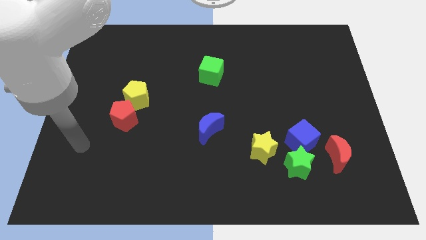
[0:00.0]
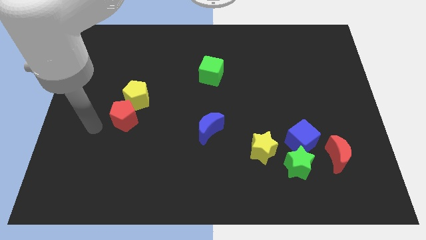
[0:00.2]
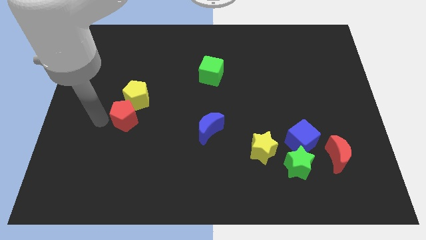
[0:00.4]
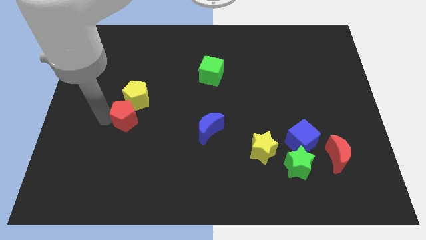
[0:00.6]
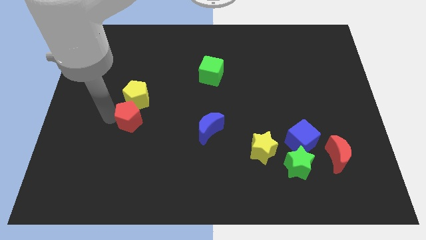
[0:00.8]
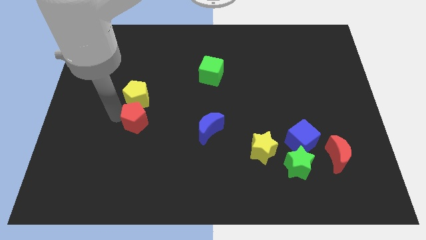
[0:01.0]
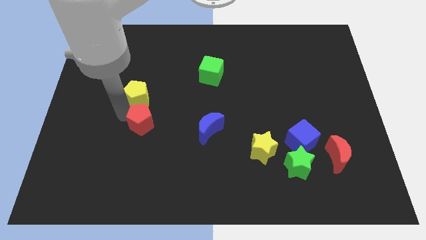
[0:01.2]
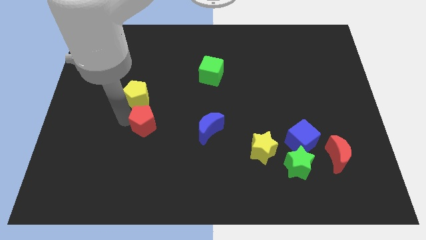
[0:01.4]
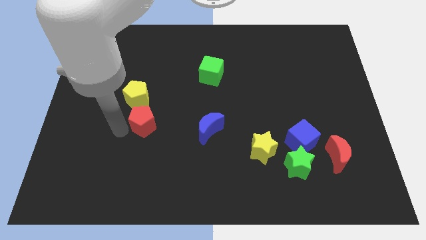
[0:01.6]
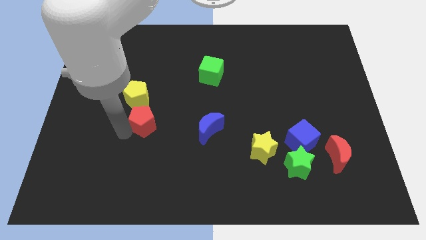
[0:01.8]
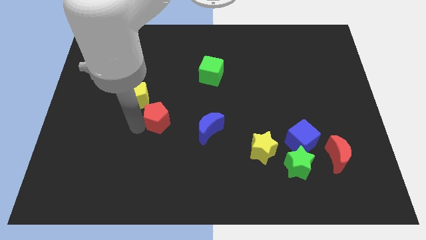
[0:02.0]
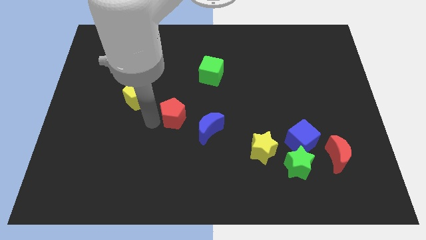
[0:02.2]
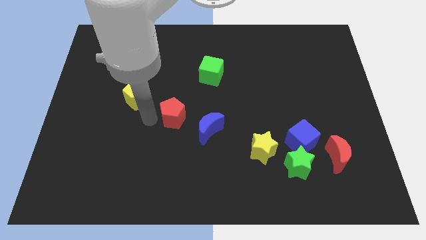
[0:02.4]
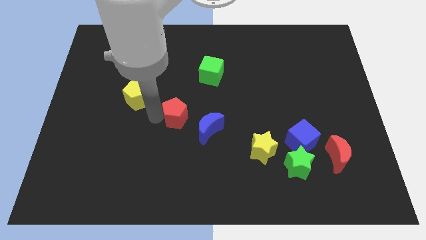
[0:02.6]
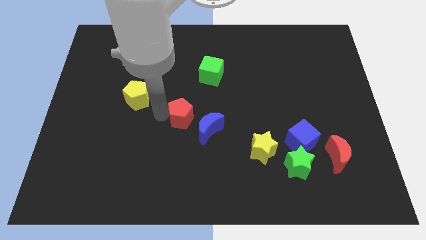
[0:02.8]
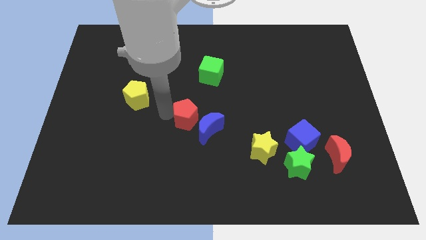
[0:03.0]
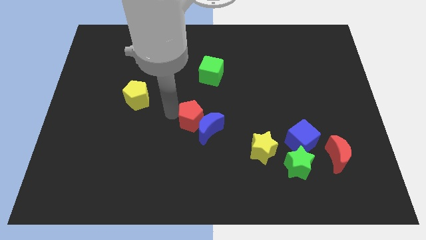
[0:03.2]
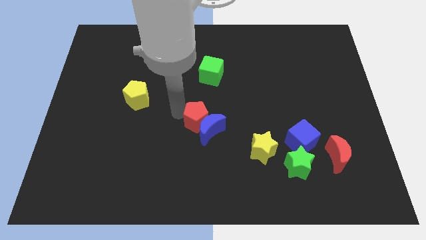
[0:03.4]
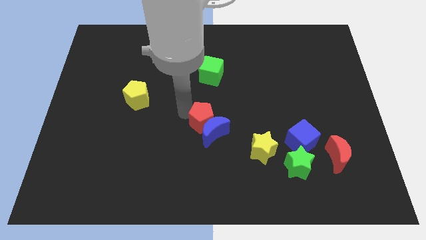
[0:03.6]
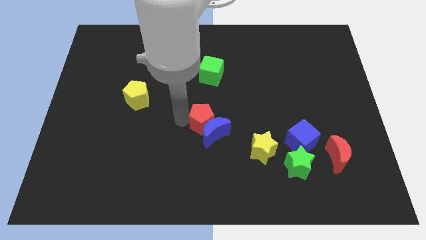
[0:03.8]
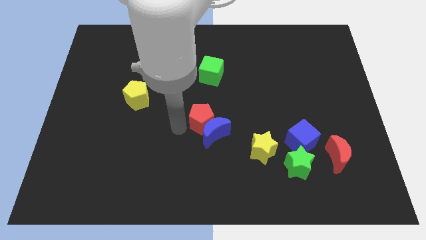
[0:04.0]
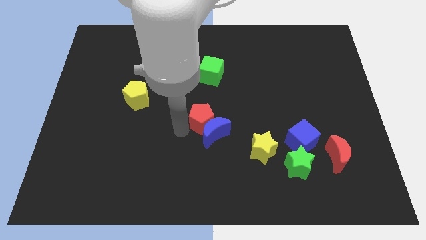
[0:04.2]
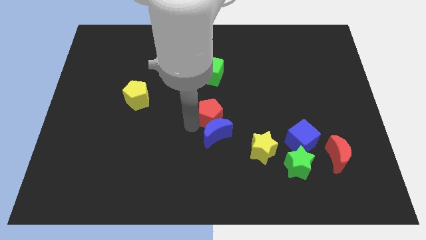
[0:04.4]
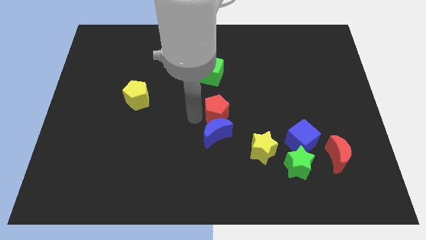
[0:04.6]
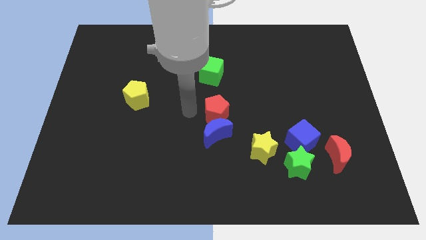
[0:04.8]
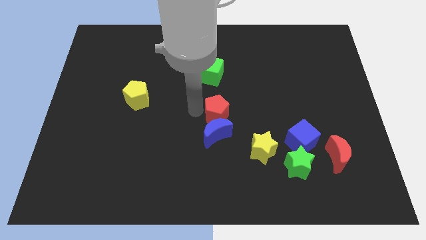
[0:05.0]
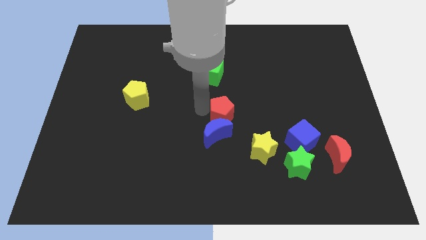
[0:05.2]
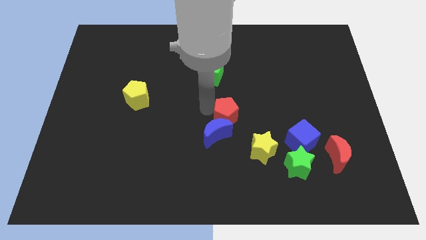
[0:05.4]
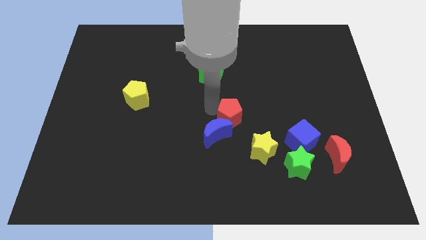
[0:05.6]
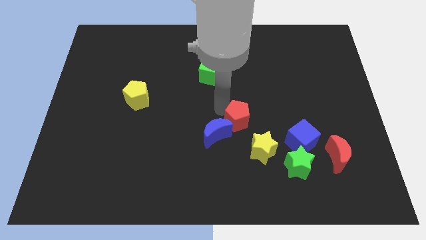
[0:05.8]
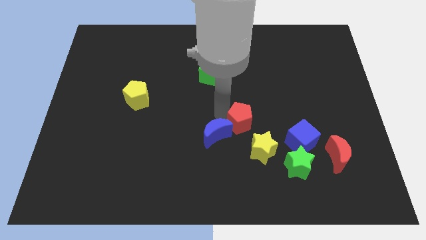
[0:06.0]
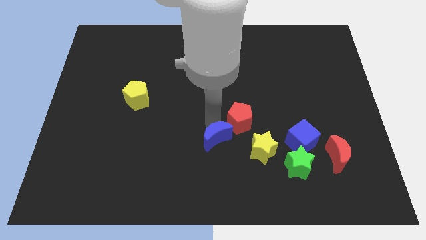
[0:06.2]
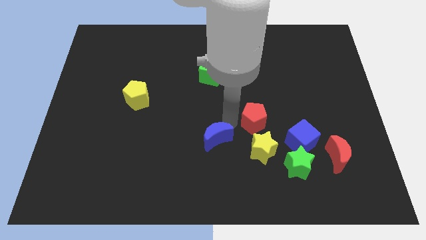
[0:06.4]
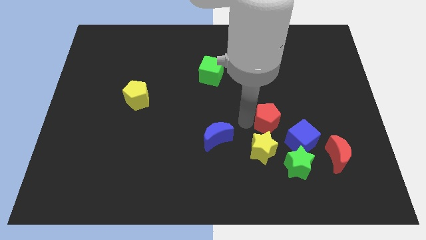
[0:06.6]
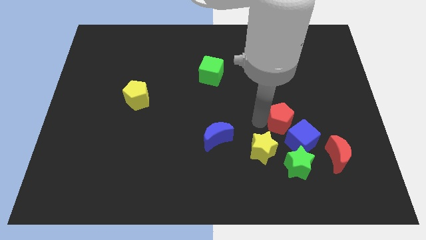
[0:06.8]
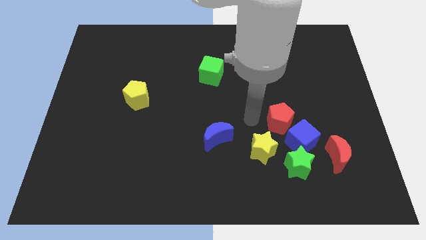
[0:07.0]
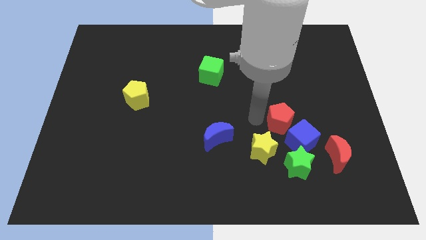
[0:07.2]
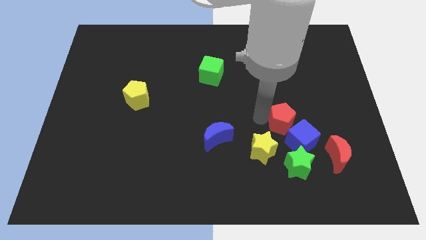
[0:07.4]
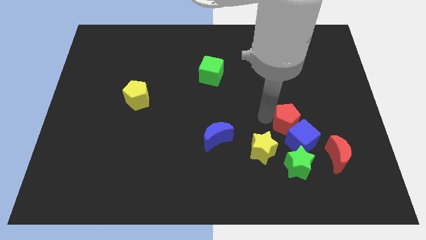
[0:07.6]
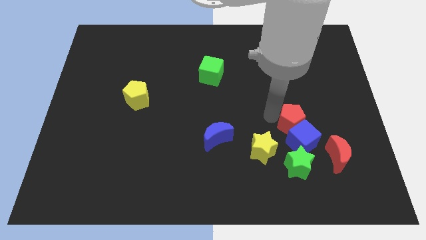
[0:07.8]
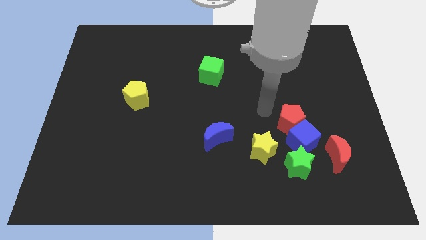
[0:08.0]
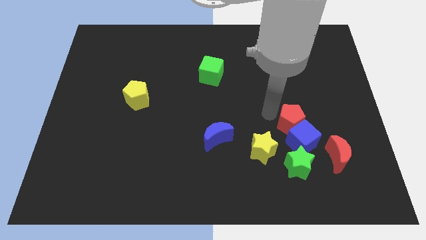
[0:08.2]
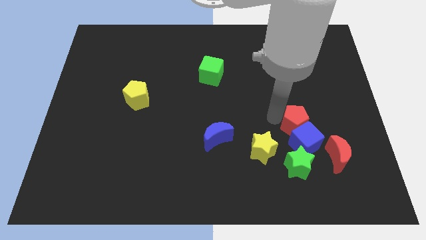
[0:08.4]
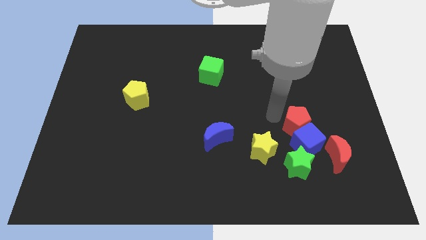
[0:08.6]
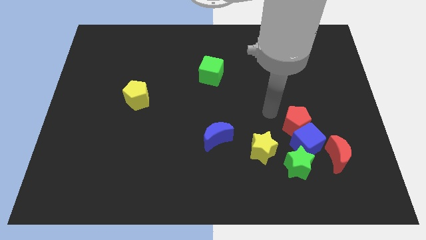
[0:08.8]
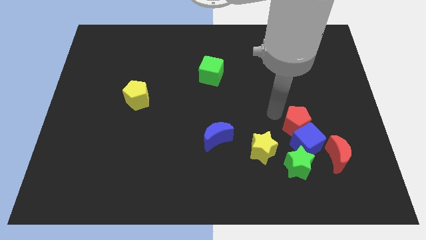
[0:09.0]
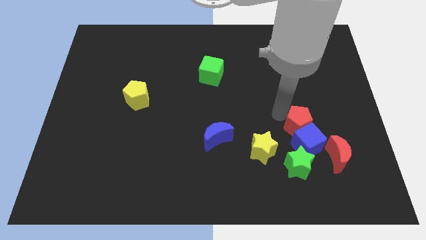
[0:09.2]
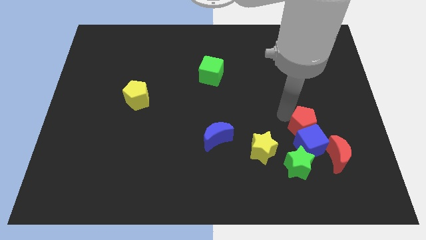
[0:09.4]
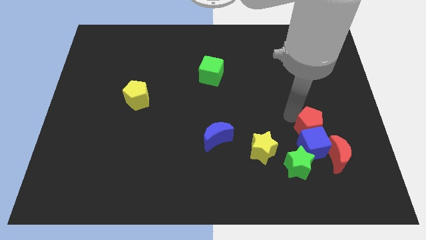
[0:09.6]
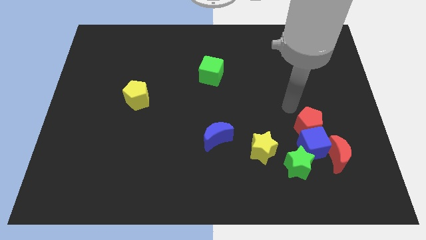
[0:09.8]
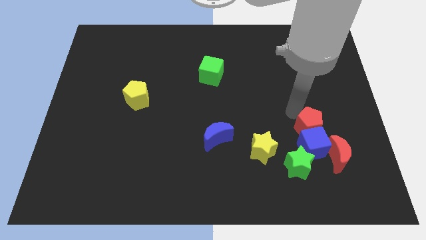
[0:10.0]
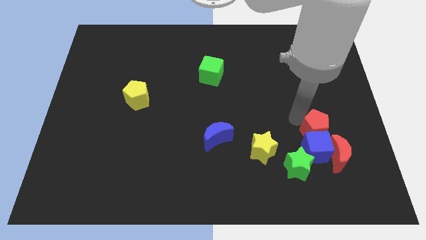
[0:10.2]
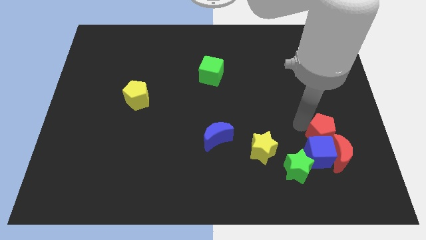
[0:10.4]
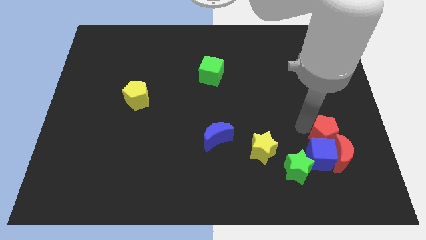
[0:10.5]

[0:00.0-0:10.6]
move the red pentagon close to the red moon

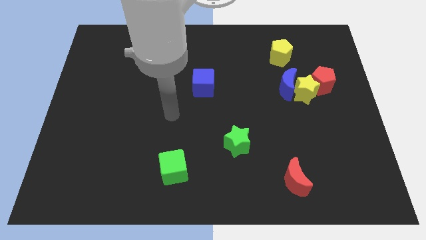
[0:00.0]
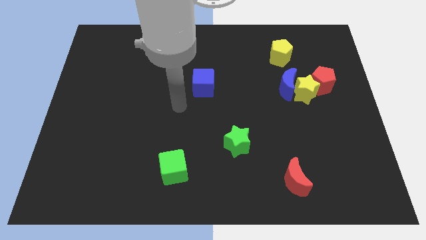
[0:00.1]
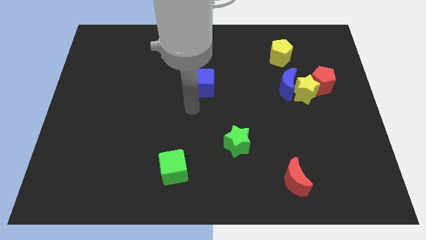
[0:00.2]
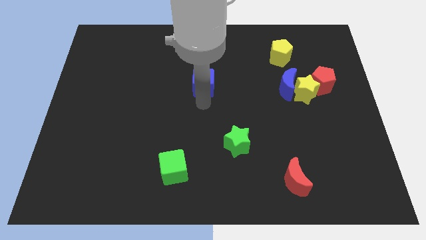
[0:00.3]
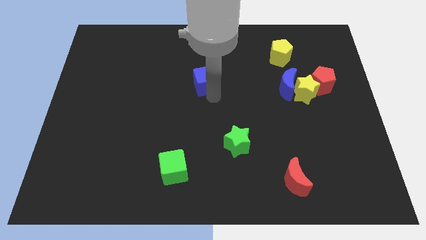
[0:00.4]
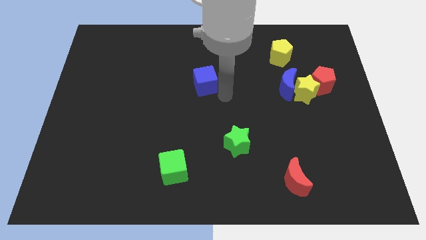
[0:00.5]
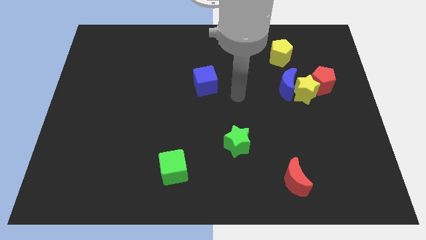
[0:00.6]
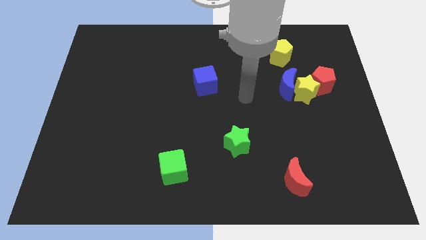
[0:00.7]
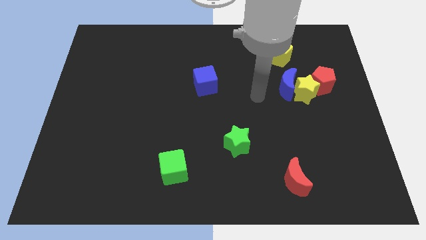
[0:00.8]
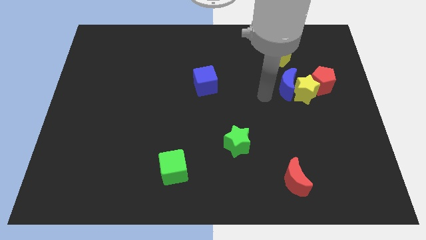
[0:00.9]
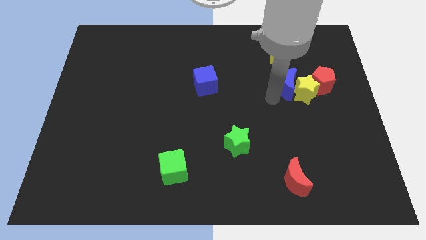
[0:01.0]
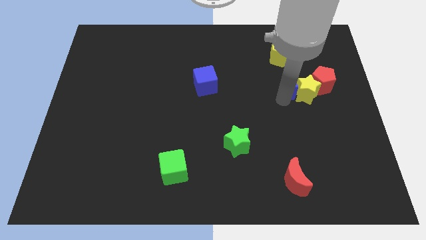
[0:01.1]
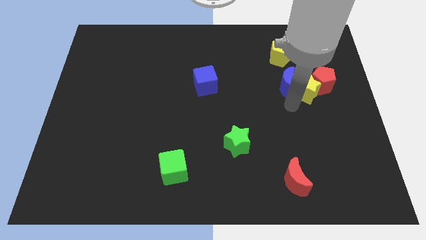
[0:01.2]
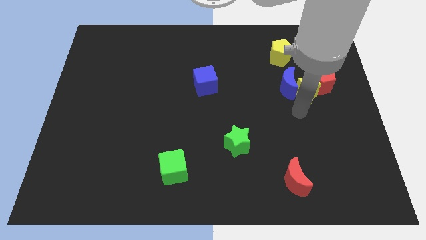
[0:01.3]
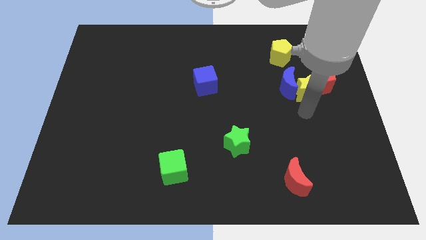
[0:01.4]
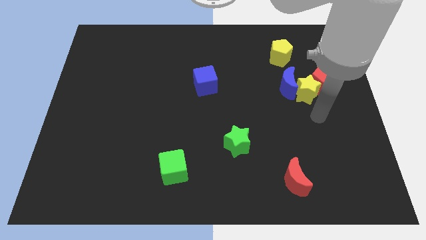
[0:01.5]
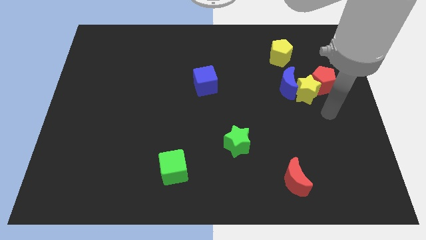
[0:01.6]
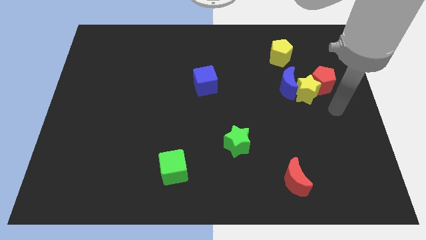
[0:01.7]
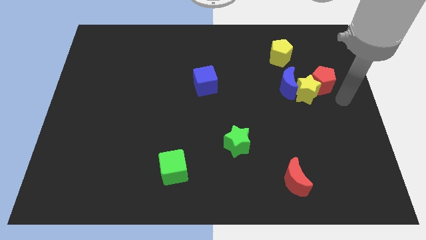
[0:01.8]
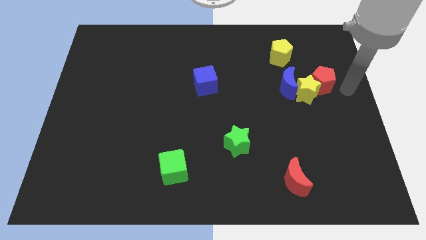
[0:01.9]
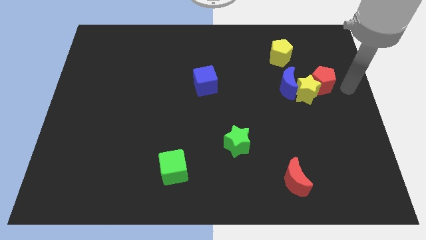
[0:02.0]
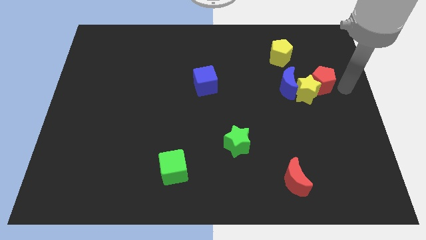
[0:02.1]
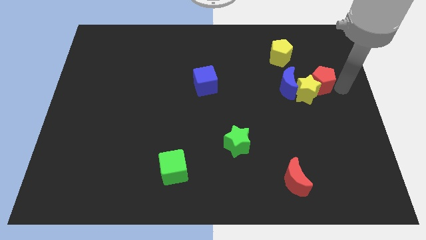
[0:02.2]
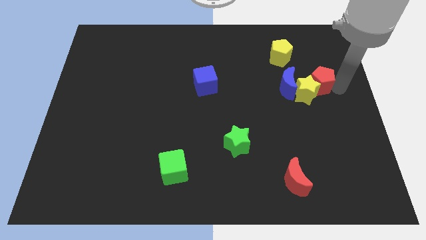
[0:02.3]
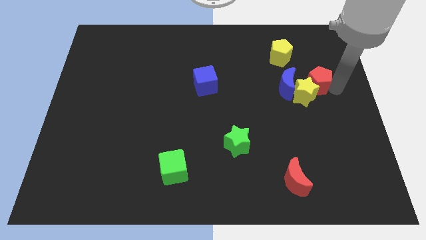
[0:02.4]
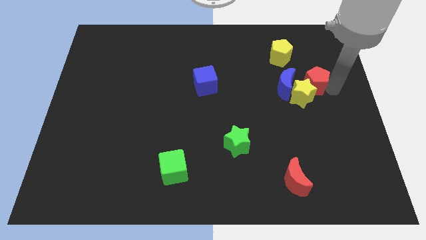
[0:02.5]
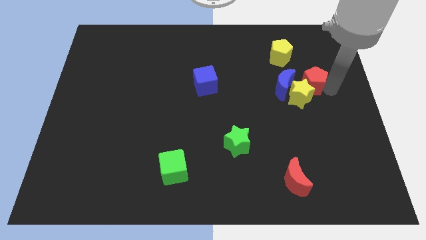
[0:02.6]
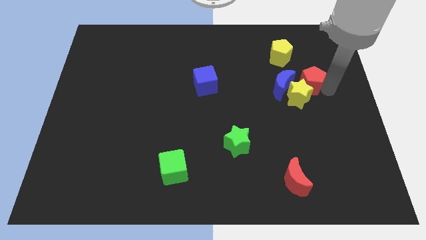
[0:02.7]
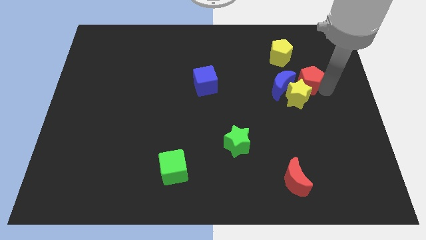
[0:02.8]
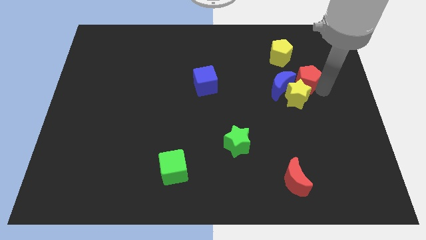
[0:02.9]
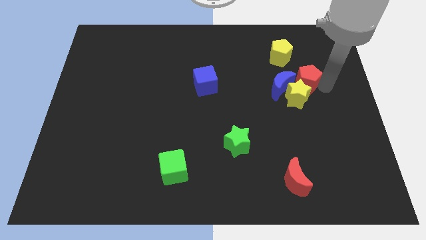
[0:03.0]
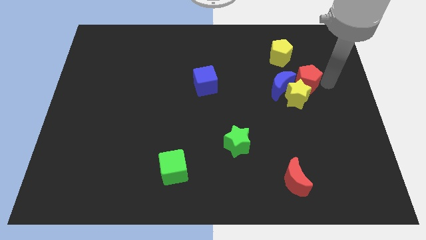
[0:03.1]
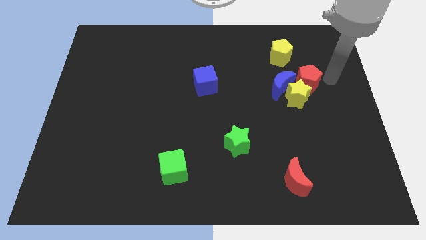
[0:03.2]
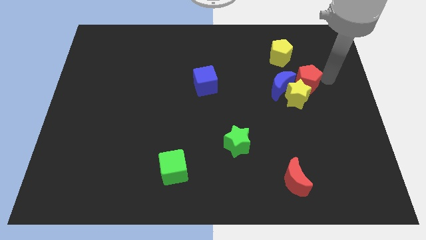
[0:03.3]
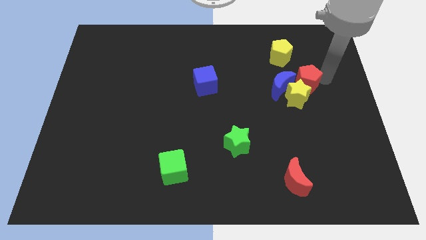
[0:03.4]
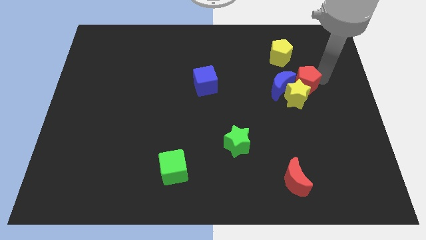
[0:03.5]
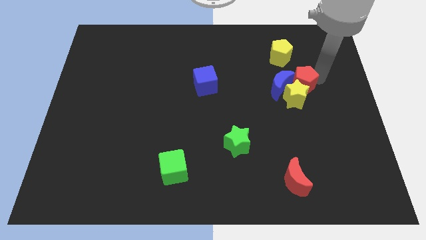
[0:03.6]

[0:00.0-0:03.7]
move the red pentagon to the blue moon
